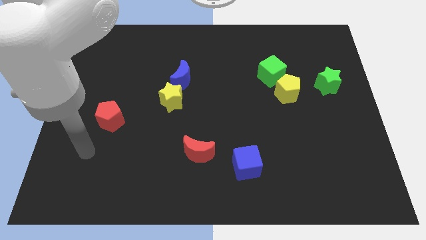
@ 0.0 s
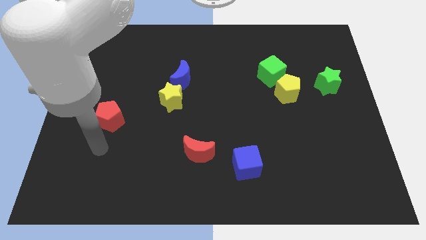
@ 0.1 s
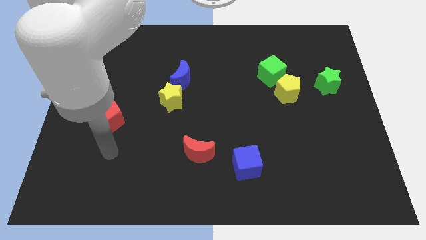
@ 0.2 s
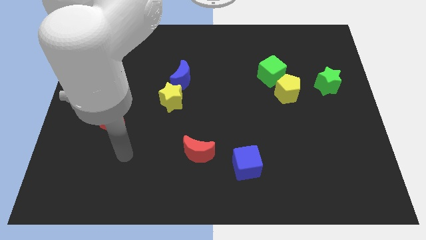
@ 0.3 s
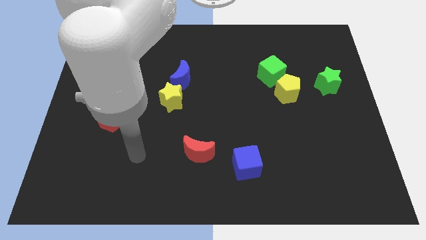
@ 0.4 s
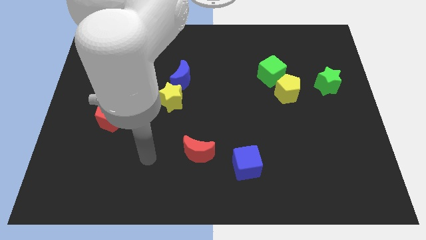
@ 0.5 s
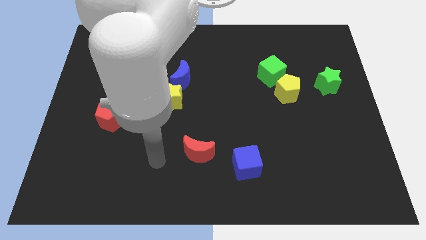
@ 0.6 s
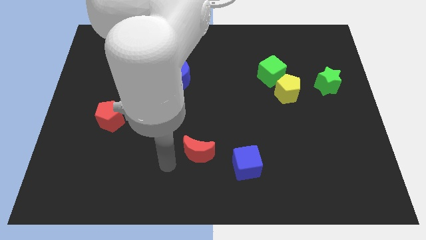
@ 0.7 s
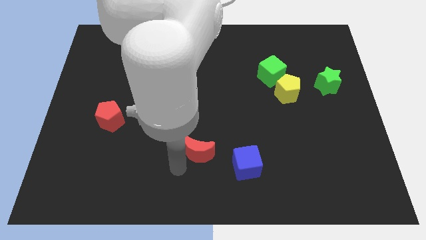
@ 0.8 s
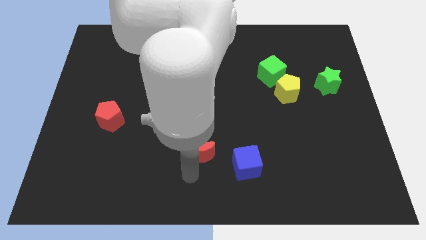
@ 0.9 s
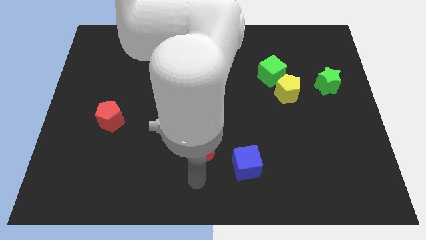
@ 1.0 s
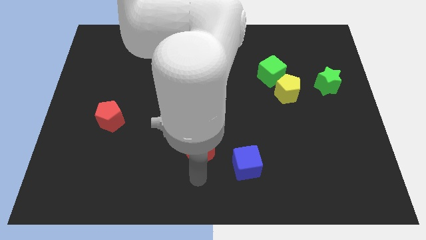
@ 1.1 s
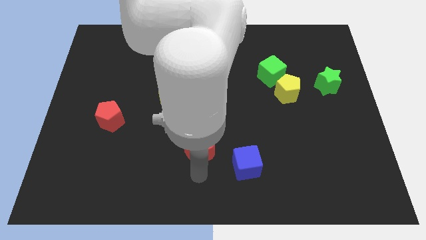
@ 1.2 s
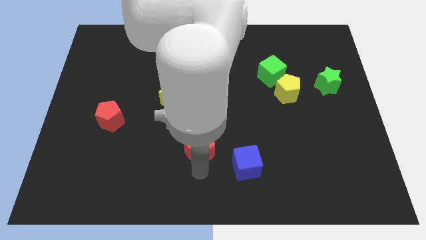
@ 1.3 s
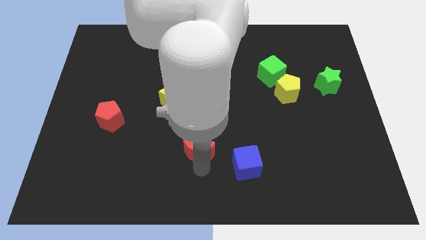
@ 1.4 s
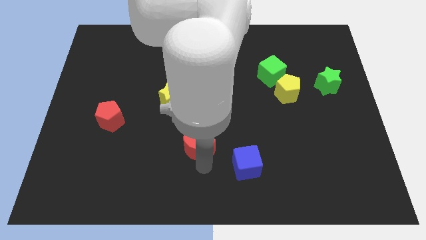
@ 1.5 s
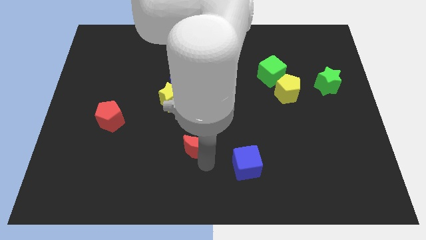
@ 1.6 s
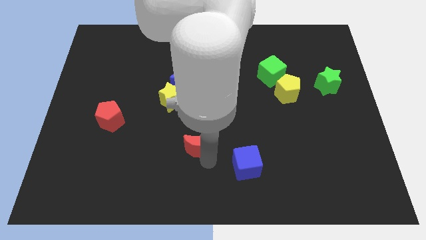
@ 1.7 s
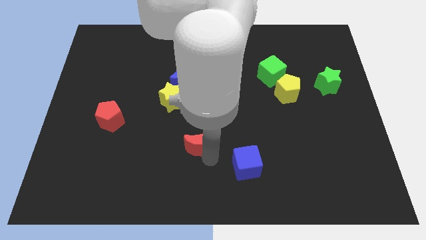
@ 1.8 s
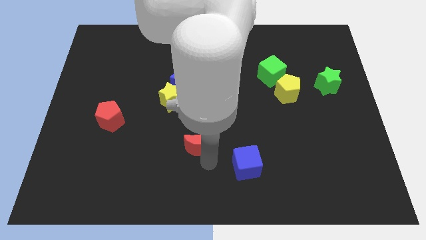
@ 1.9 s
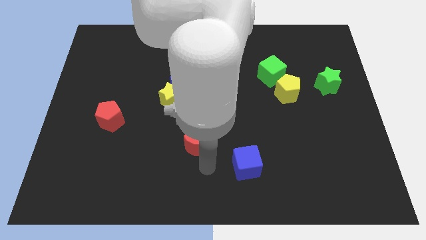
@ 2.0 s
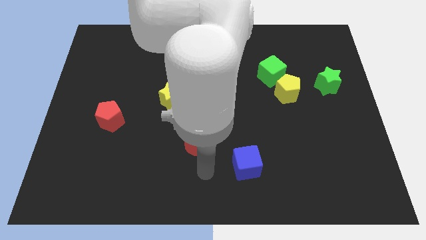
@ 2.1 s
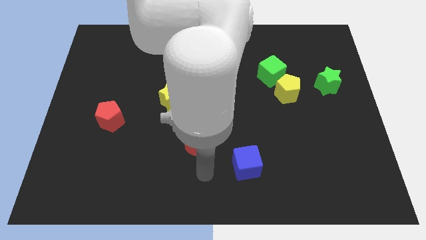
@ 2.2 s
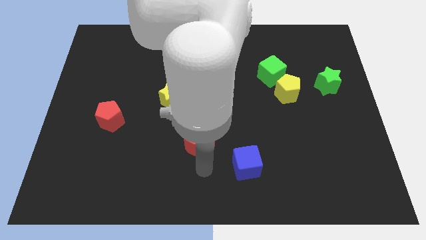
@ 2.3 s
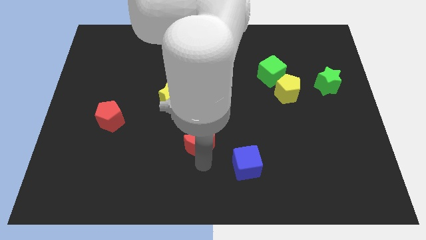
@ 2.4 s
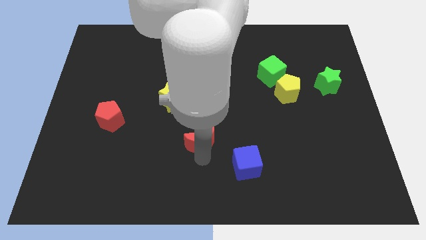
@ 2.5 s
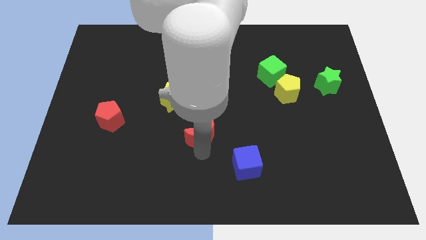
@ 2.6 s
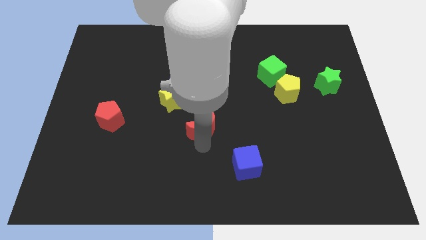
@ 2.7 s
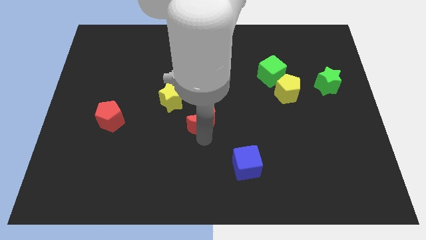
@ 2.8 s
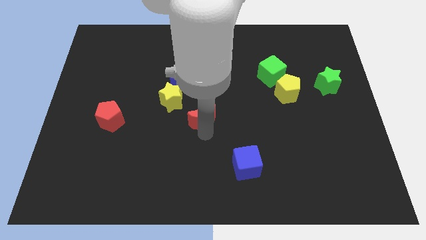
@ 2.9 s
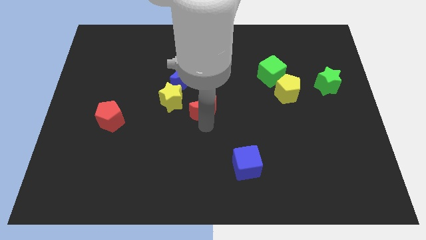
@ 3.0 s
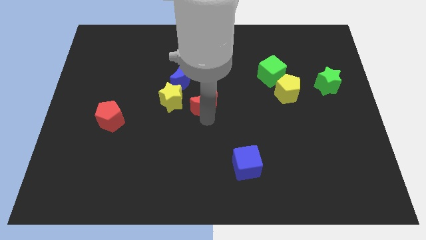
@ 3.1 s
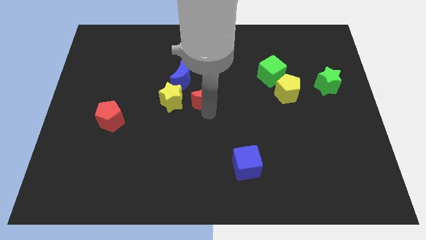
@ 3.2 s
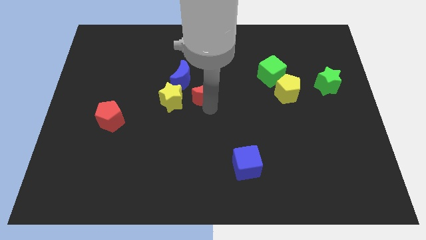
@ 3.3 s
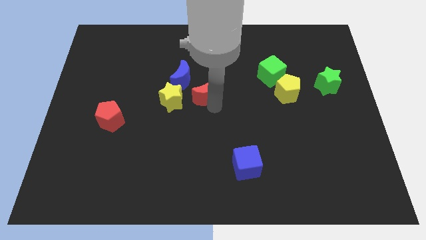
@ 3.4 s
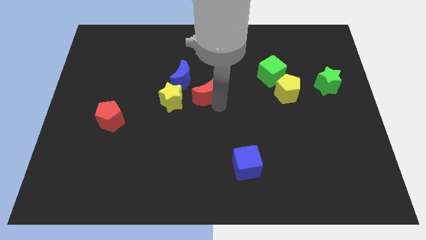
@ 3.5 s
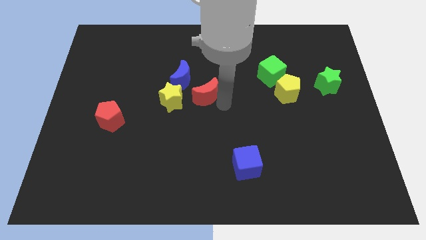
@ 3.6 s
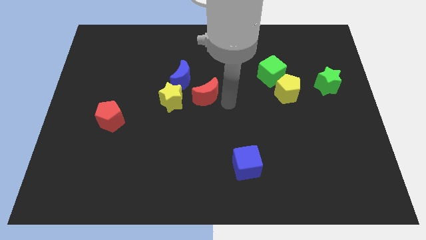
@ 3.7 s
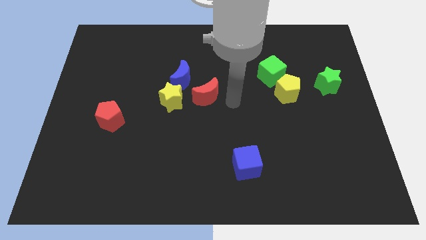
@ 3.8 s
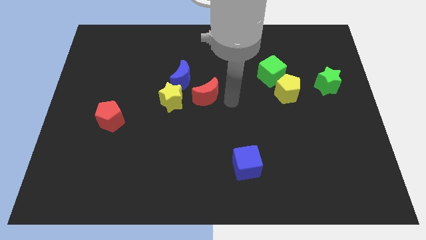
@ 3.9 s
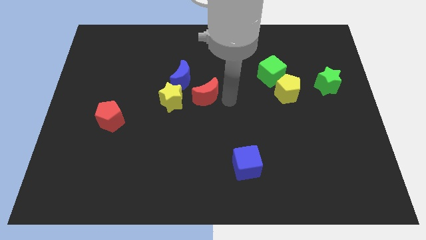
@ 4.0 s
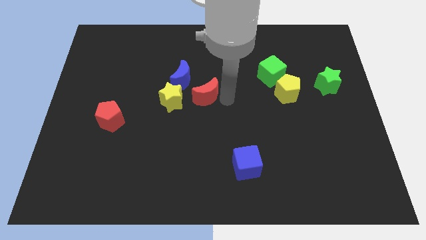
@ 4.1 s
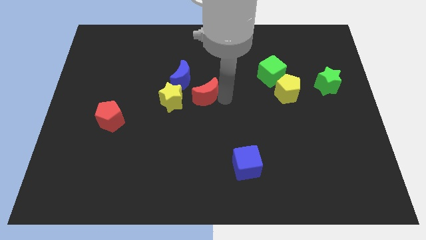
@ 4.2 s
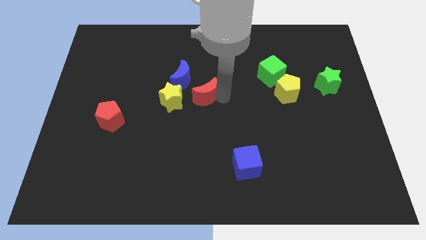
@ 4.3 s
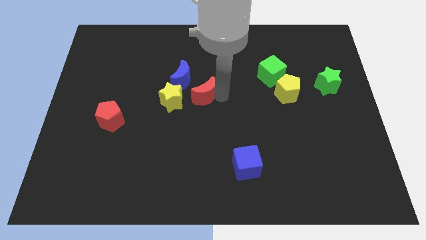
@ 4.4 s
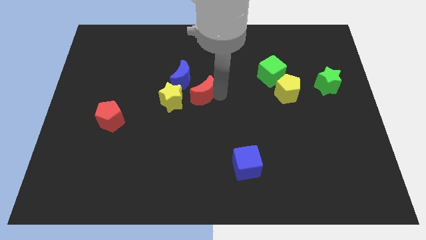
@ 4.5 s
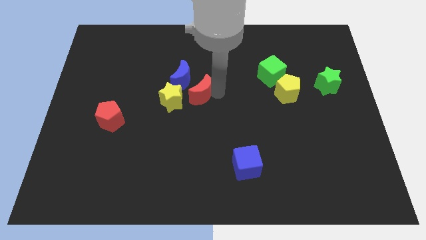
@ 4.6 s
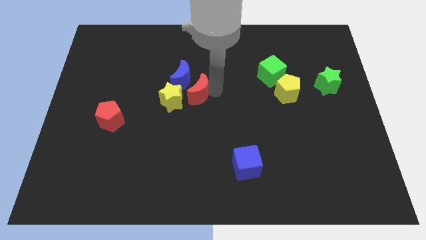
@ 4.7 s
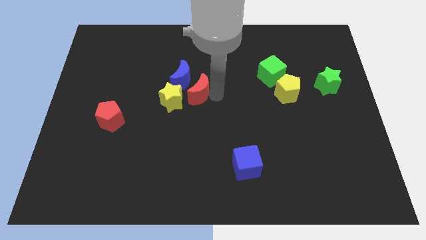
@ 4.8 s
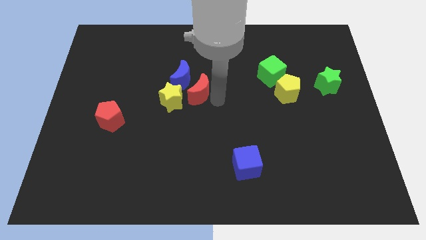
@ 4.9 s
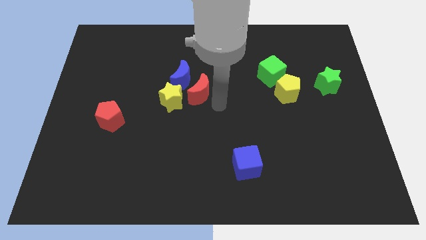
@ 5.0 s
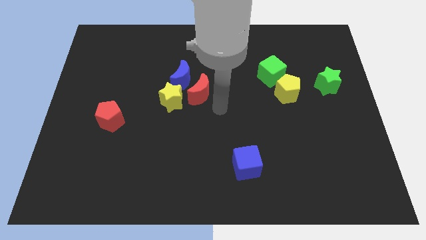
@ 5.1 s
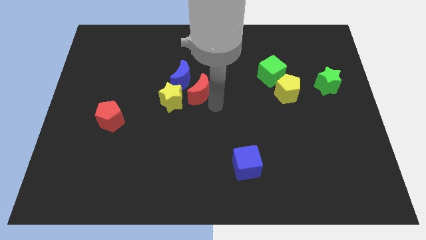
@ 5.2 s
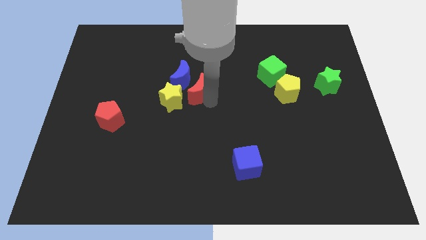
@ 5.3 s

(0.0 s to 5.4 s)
put the red moon close to the blue moon
